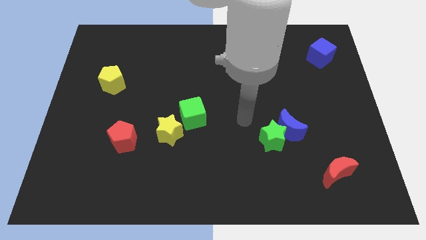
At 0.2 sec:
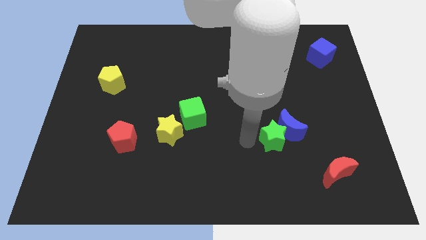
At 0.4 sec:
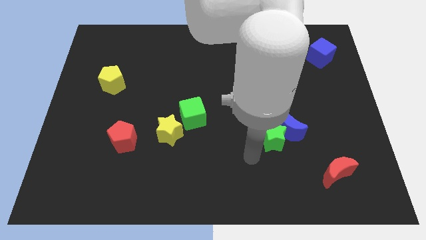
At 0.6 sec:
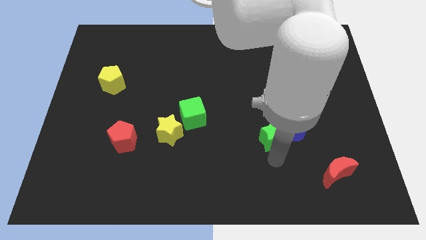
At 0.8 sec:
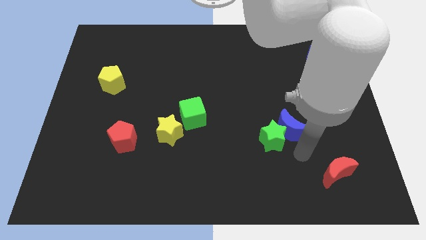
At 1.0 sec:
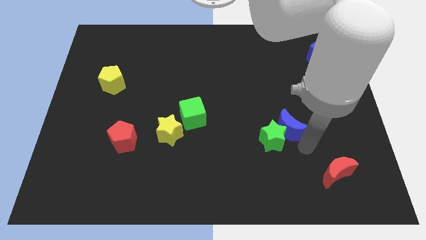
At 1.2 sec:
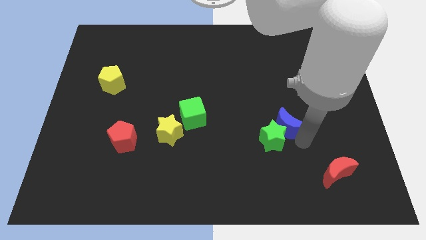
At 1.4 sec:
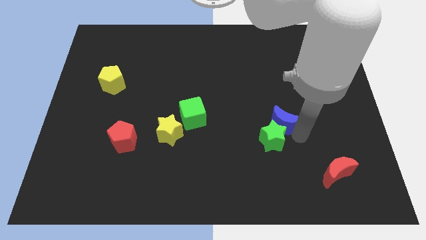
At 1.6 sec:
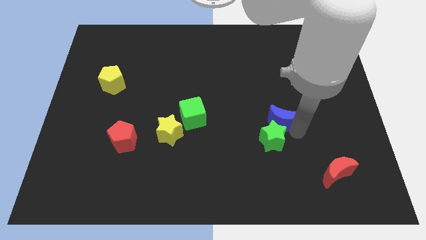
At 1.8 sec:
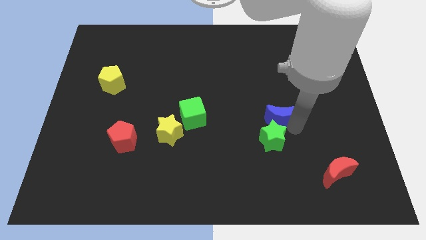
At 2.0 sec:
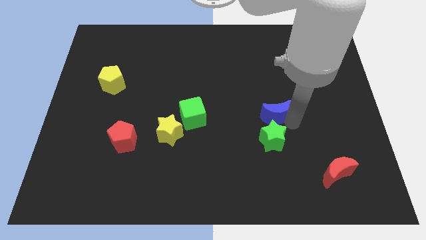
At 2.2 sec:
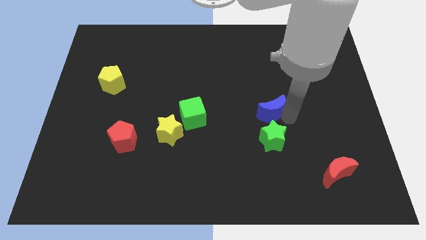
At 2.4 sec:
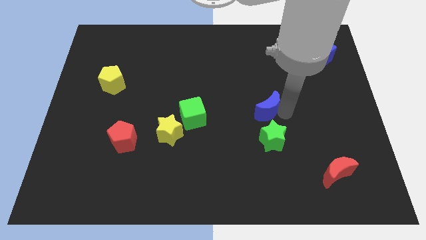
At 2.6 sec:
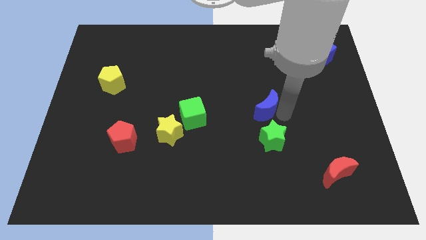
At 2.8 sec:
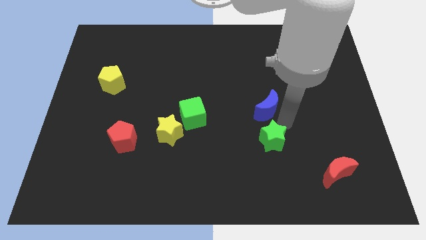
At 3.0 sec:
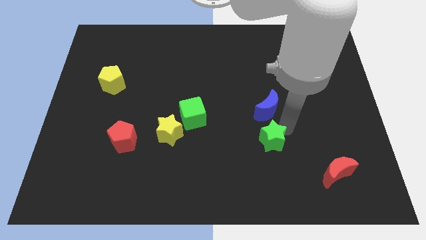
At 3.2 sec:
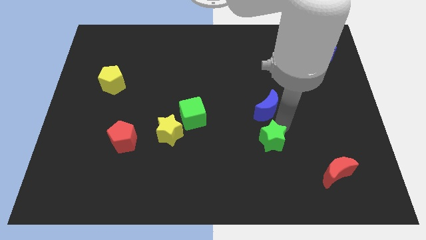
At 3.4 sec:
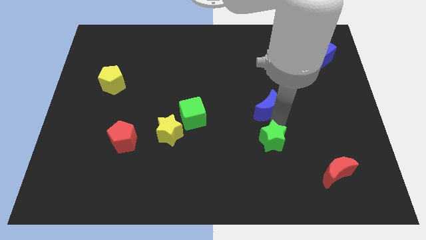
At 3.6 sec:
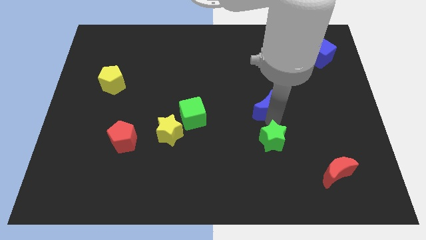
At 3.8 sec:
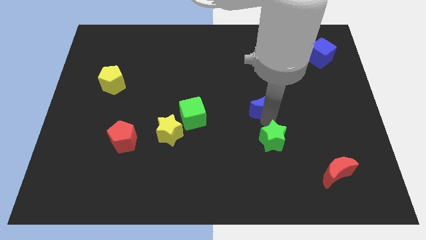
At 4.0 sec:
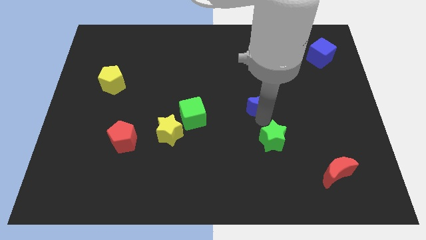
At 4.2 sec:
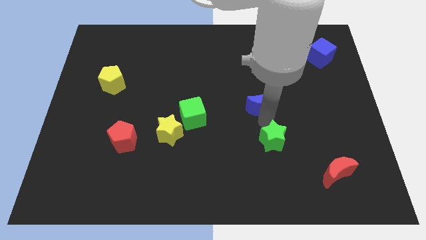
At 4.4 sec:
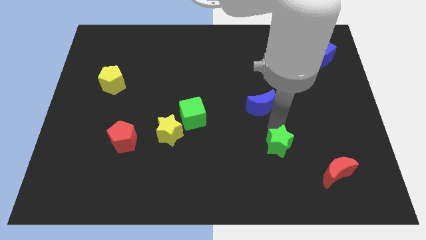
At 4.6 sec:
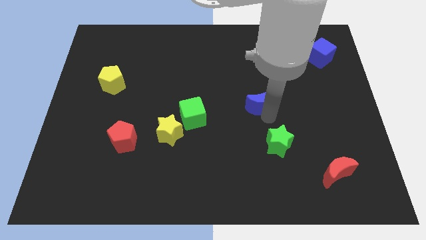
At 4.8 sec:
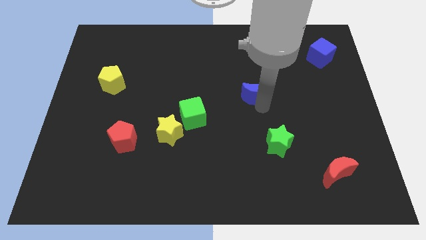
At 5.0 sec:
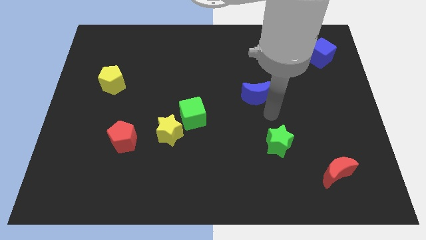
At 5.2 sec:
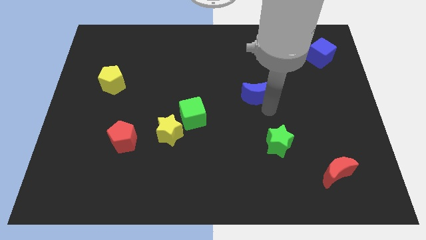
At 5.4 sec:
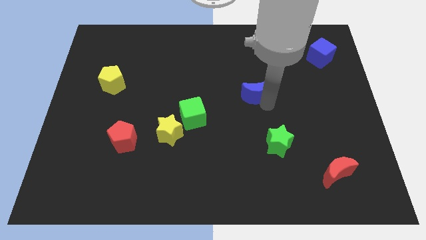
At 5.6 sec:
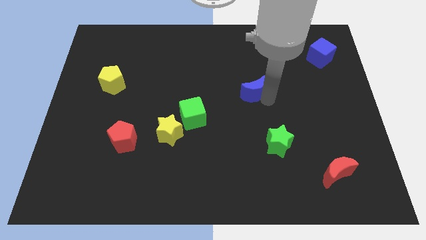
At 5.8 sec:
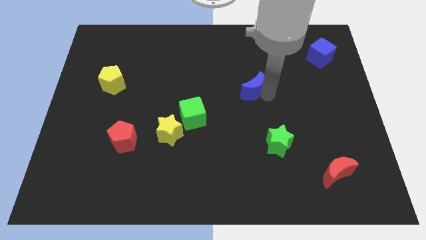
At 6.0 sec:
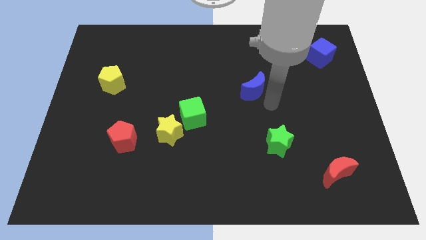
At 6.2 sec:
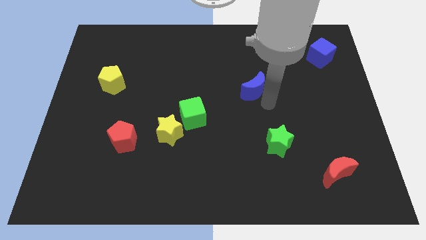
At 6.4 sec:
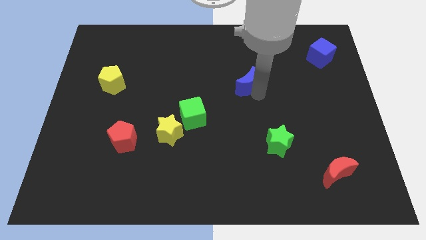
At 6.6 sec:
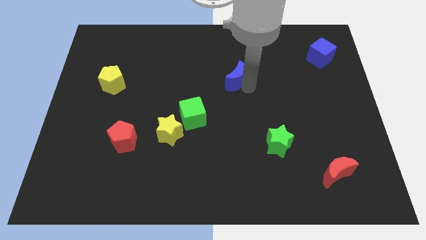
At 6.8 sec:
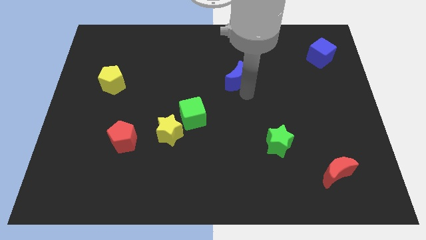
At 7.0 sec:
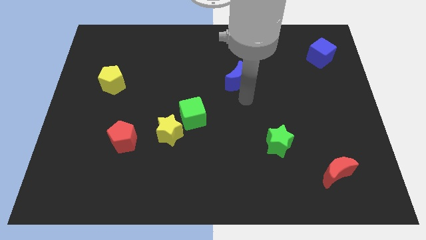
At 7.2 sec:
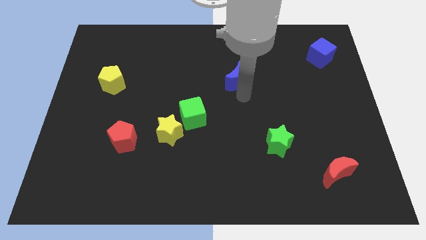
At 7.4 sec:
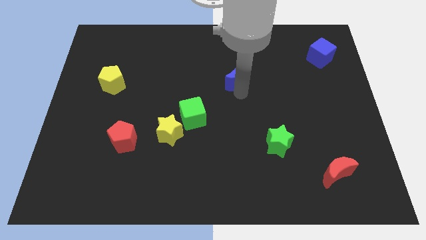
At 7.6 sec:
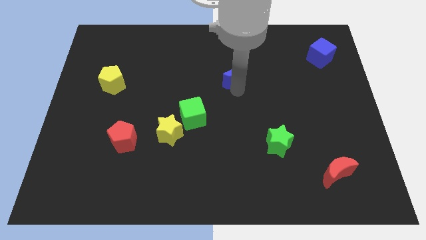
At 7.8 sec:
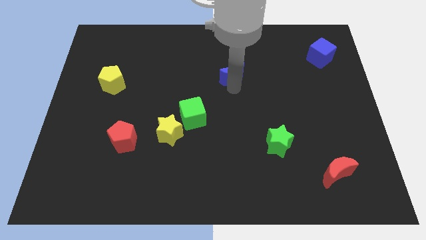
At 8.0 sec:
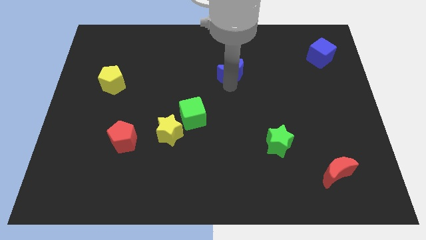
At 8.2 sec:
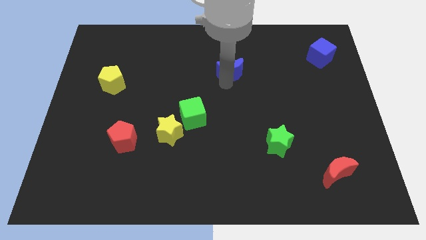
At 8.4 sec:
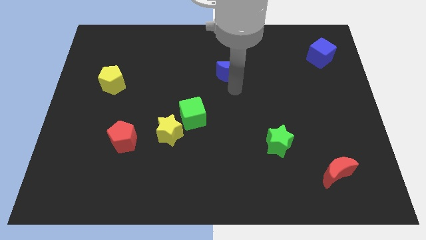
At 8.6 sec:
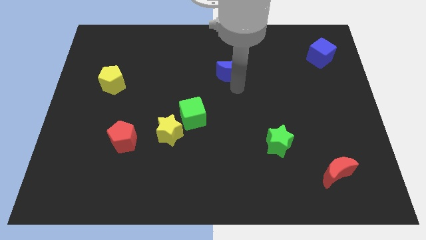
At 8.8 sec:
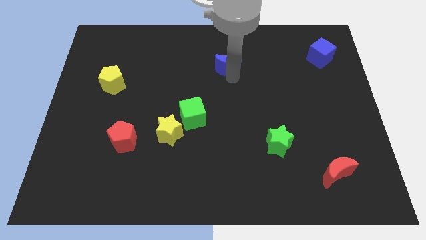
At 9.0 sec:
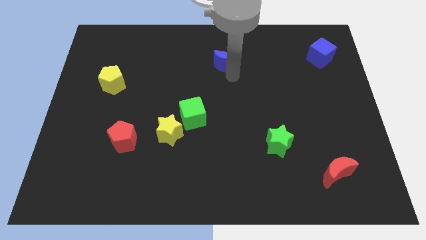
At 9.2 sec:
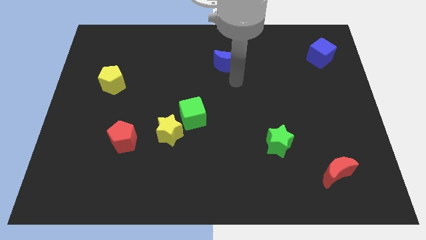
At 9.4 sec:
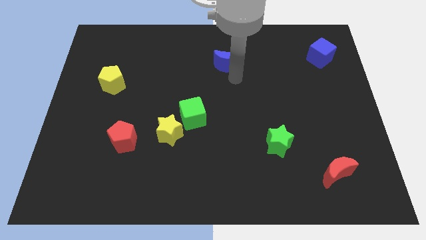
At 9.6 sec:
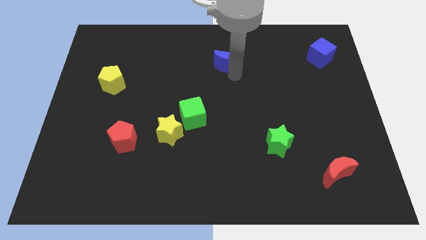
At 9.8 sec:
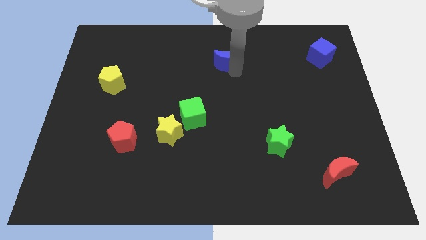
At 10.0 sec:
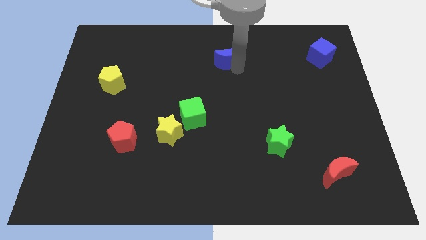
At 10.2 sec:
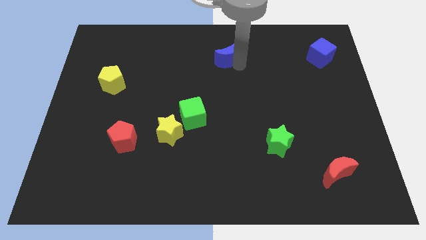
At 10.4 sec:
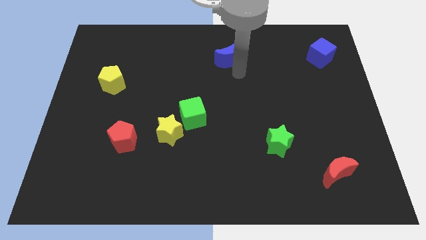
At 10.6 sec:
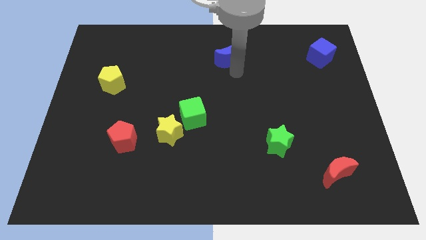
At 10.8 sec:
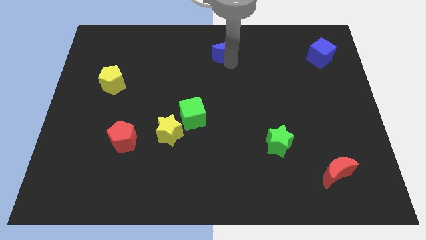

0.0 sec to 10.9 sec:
push the blue moon to the towards your base

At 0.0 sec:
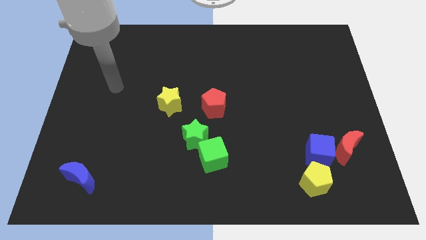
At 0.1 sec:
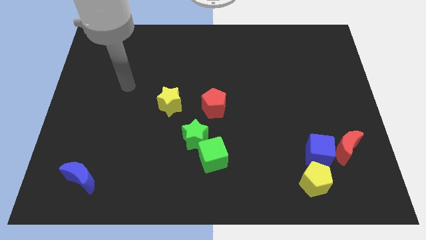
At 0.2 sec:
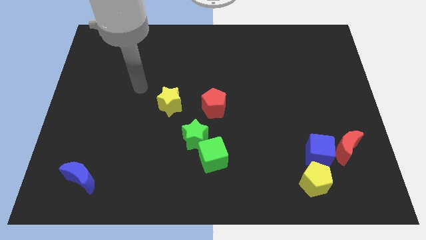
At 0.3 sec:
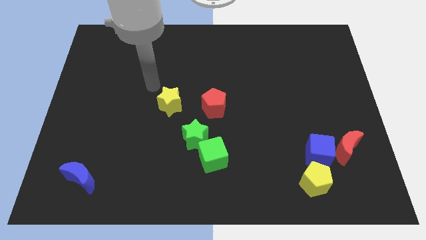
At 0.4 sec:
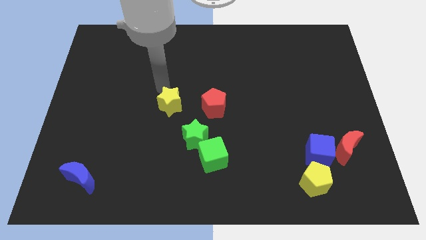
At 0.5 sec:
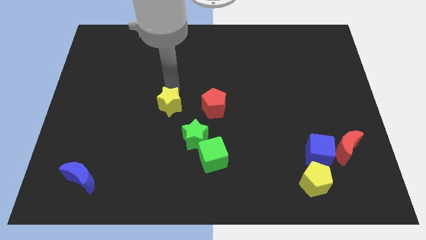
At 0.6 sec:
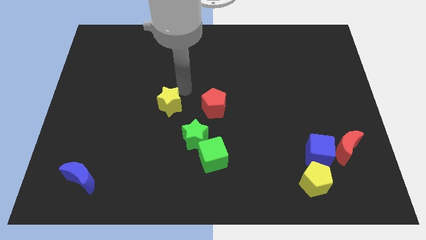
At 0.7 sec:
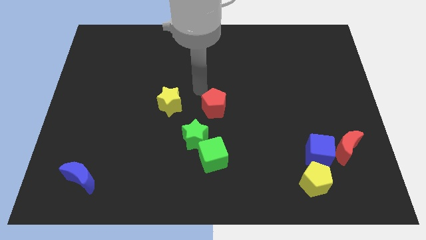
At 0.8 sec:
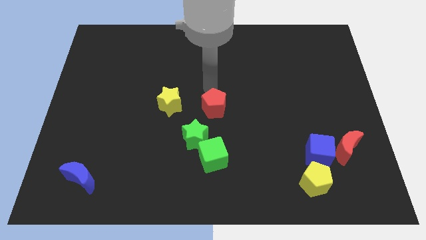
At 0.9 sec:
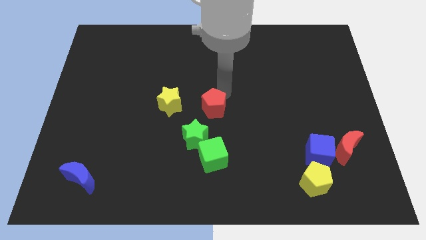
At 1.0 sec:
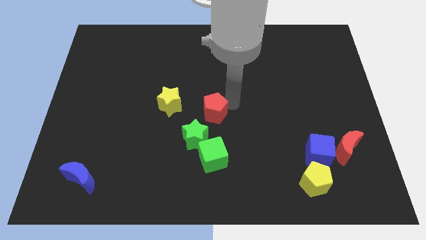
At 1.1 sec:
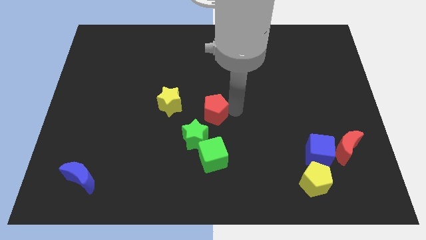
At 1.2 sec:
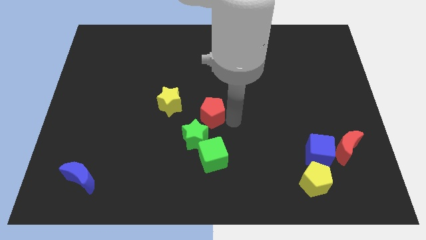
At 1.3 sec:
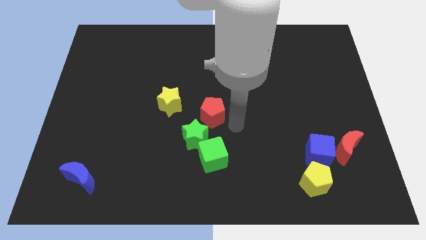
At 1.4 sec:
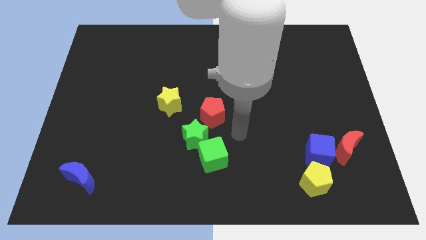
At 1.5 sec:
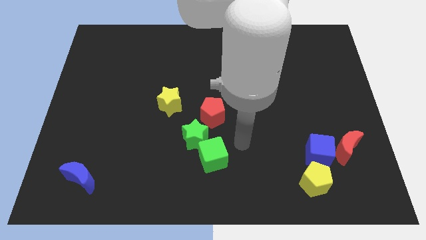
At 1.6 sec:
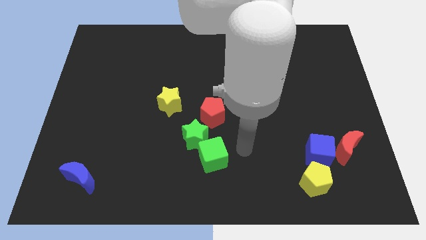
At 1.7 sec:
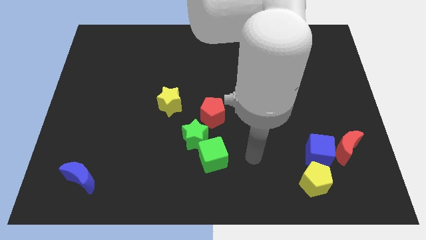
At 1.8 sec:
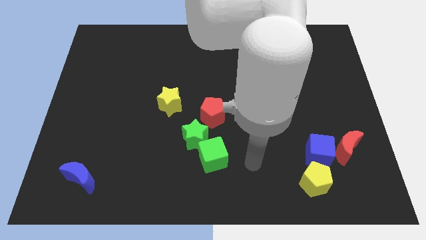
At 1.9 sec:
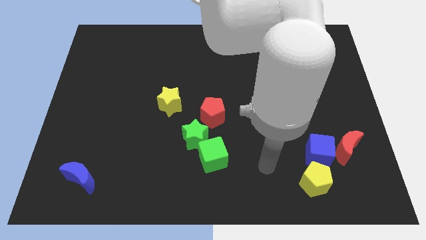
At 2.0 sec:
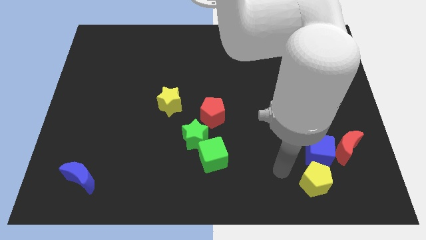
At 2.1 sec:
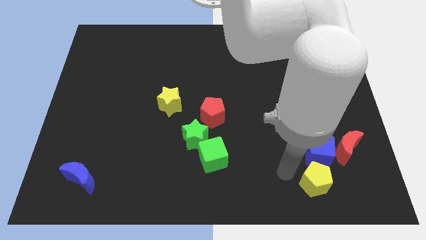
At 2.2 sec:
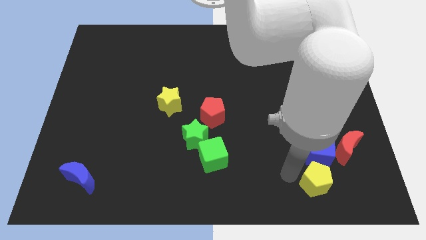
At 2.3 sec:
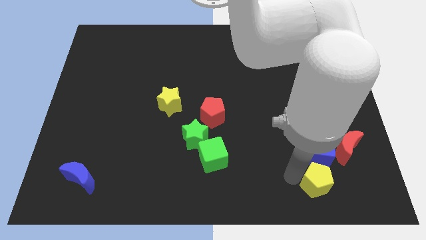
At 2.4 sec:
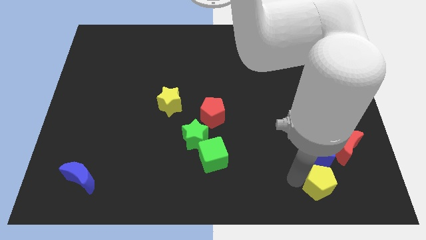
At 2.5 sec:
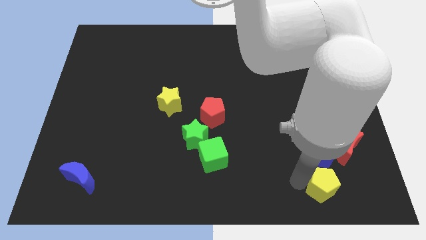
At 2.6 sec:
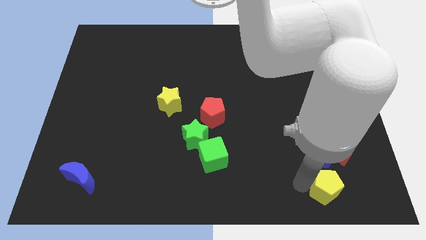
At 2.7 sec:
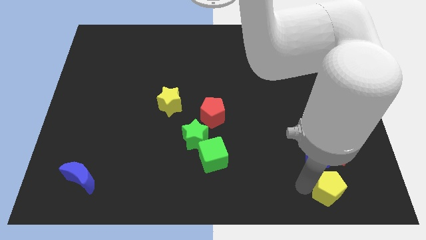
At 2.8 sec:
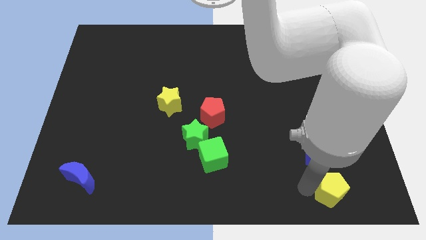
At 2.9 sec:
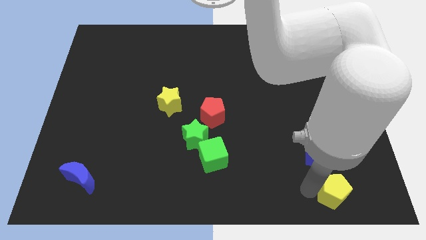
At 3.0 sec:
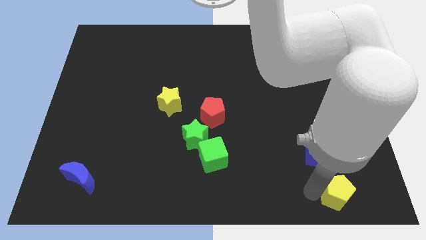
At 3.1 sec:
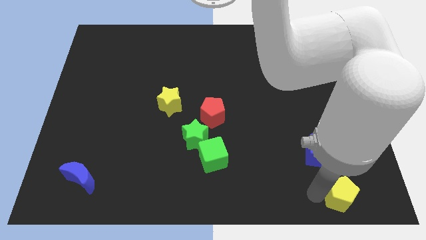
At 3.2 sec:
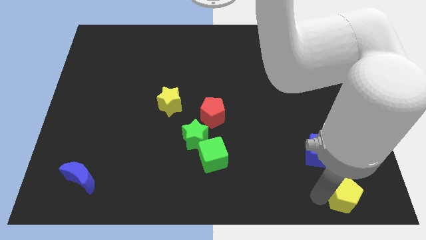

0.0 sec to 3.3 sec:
push the yellow pentagon to the bottom right
